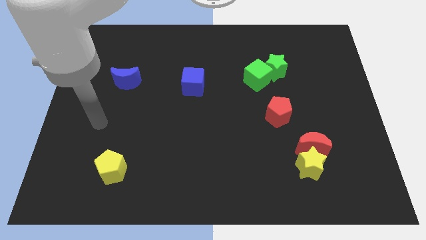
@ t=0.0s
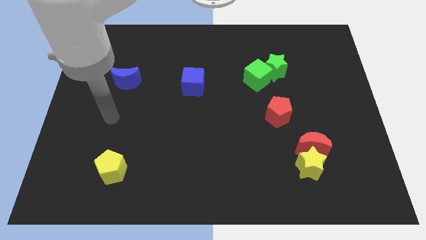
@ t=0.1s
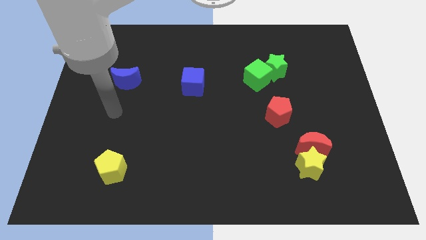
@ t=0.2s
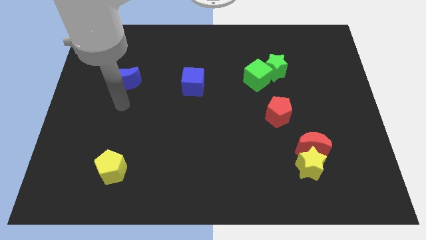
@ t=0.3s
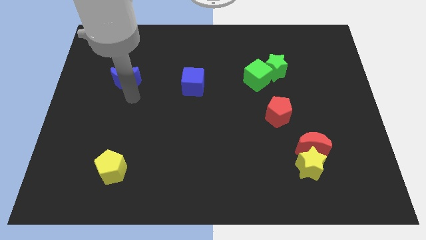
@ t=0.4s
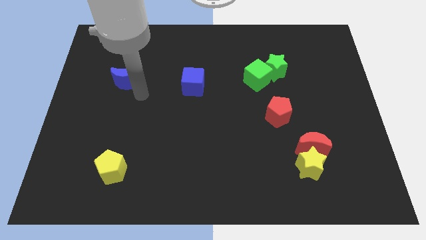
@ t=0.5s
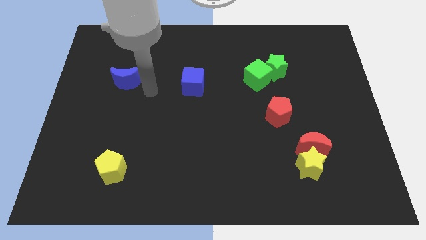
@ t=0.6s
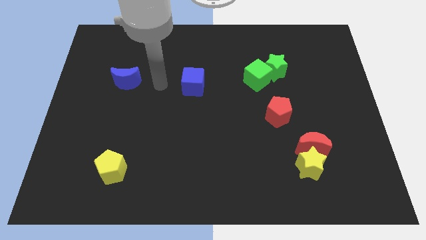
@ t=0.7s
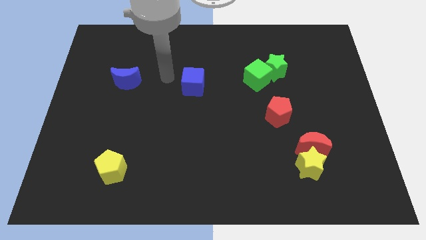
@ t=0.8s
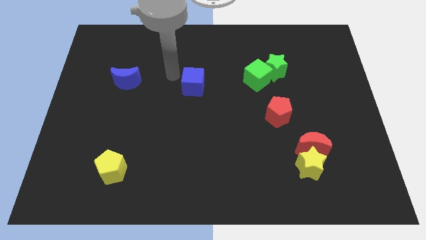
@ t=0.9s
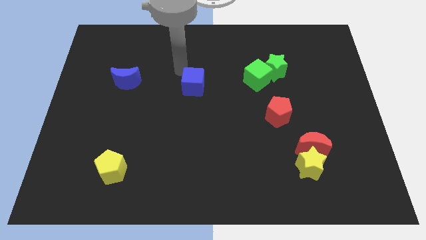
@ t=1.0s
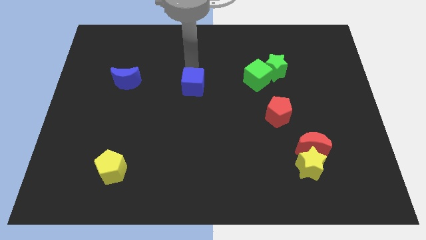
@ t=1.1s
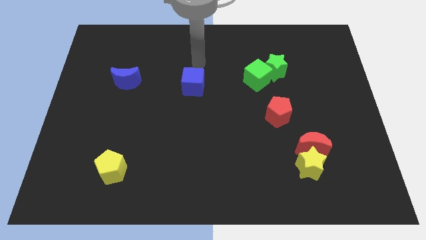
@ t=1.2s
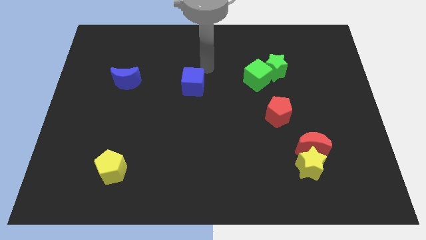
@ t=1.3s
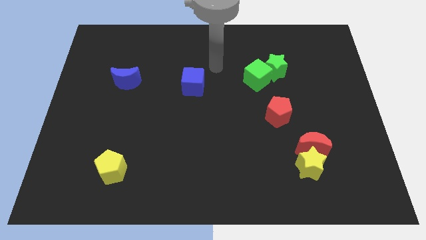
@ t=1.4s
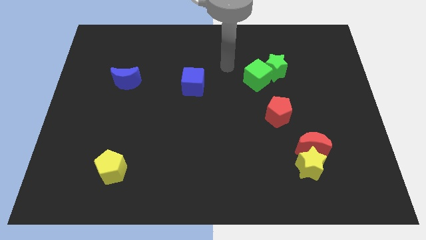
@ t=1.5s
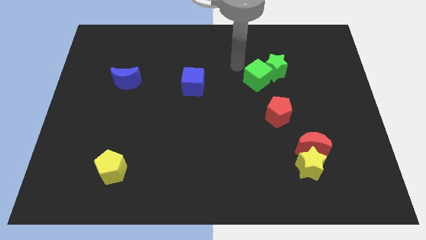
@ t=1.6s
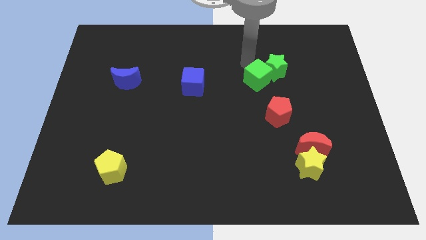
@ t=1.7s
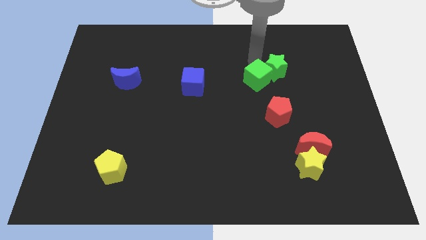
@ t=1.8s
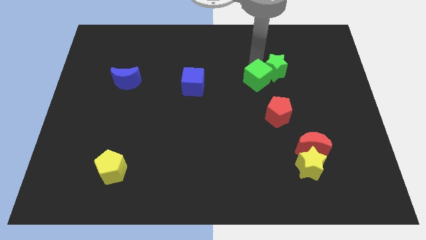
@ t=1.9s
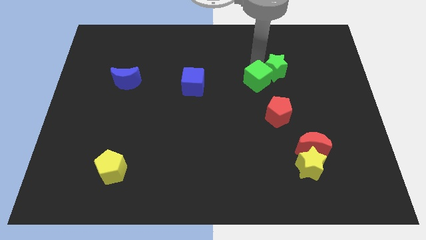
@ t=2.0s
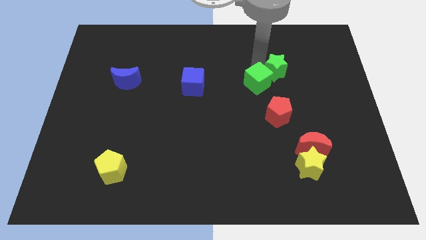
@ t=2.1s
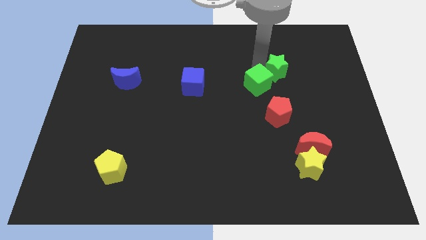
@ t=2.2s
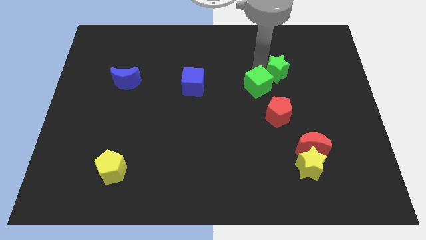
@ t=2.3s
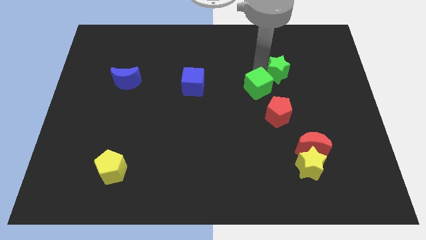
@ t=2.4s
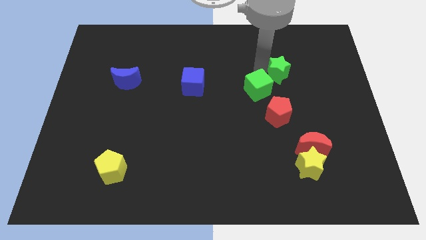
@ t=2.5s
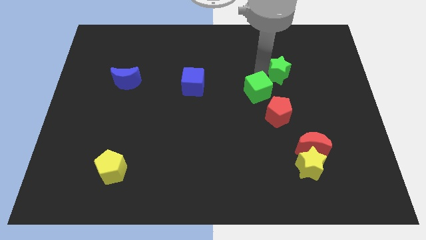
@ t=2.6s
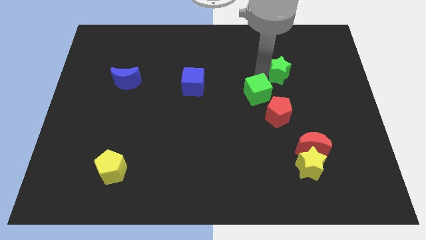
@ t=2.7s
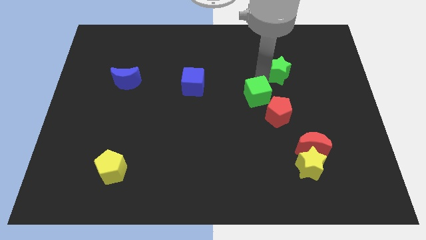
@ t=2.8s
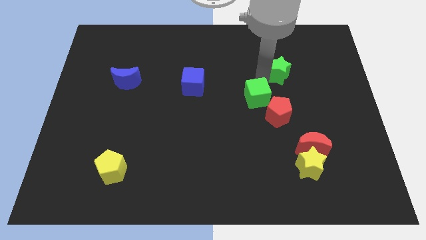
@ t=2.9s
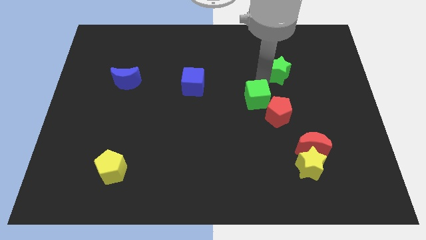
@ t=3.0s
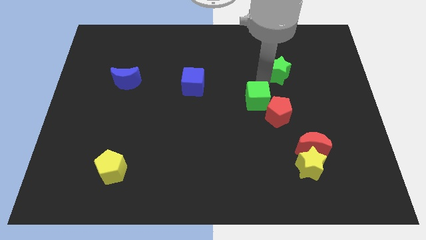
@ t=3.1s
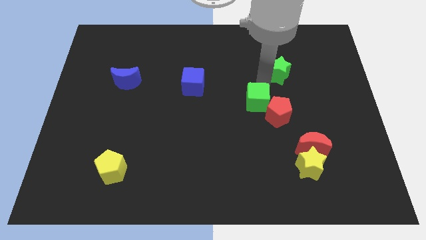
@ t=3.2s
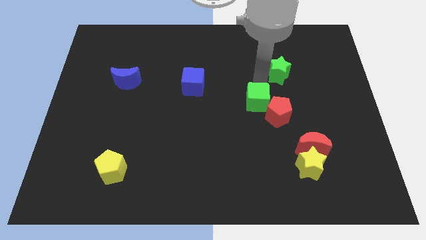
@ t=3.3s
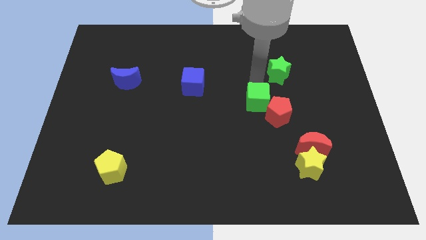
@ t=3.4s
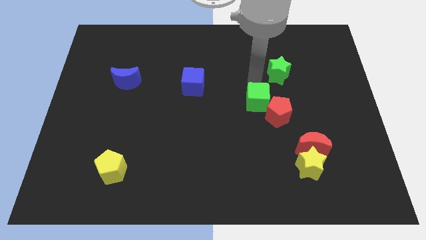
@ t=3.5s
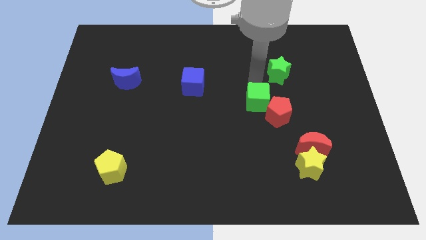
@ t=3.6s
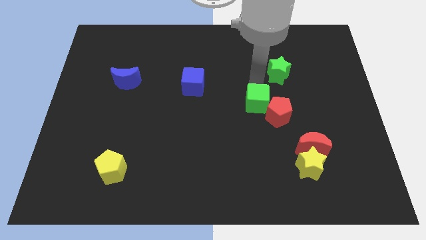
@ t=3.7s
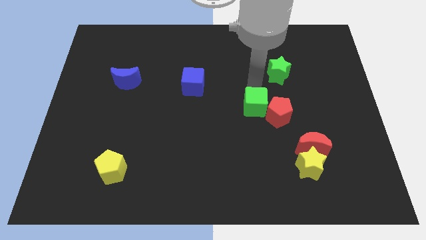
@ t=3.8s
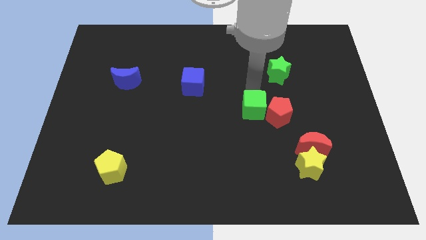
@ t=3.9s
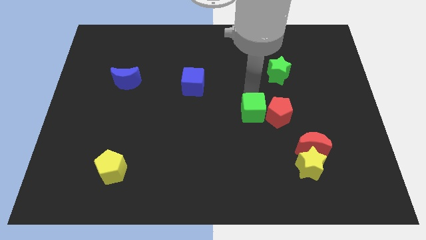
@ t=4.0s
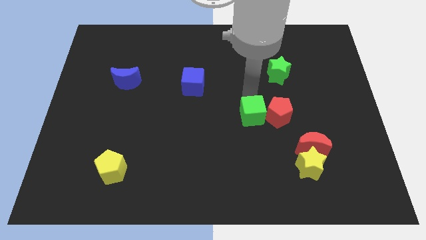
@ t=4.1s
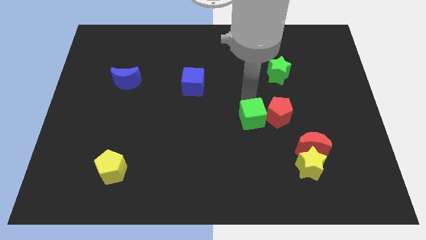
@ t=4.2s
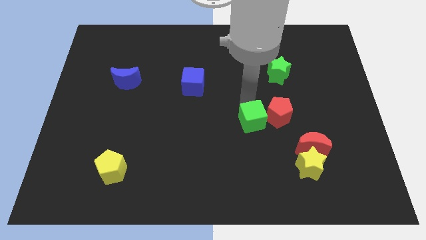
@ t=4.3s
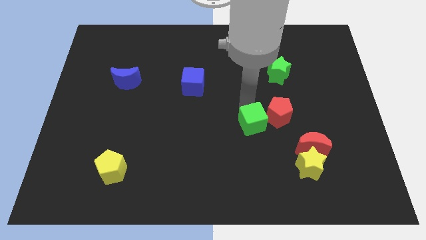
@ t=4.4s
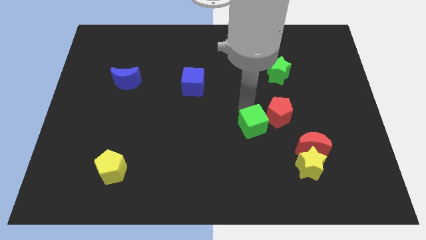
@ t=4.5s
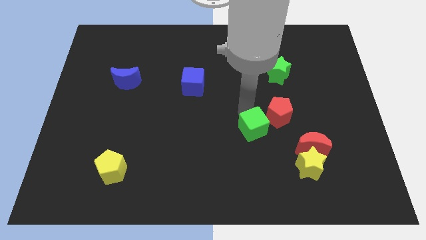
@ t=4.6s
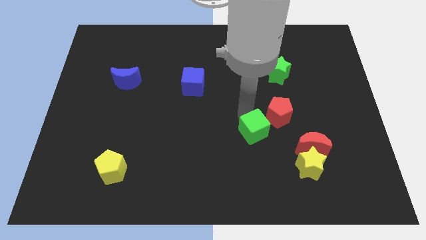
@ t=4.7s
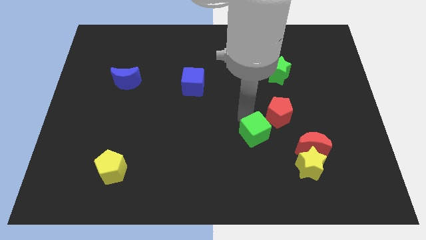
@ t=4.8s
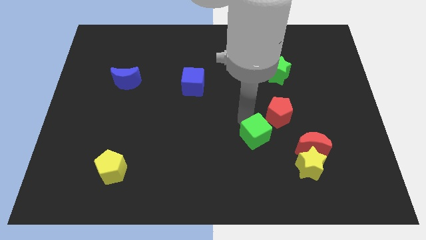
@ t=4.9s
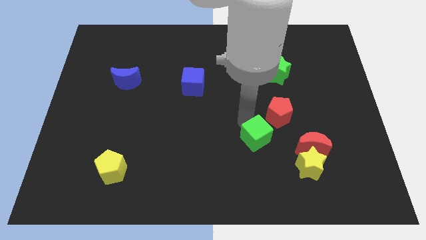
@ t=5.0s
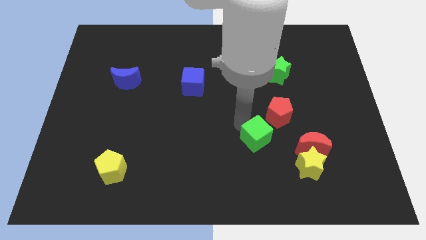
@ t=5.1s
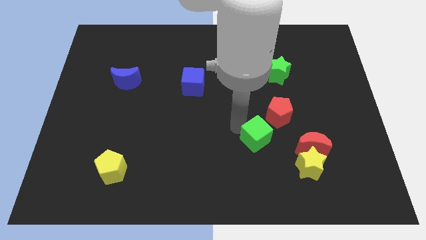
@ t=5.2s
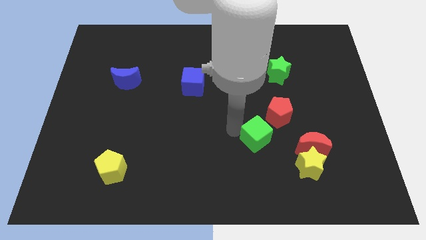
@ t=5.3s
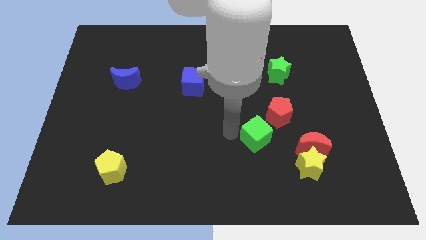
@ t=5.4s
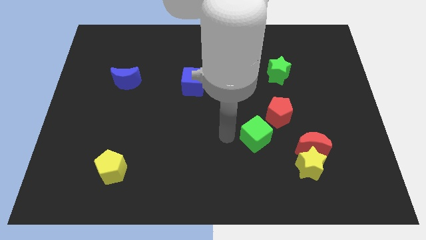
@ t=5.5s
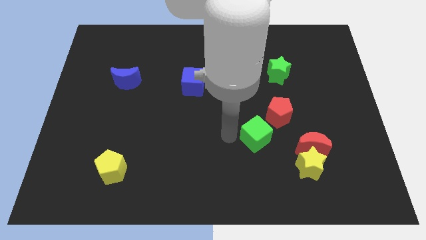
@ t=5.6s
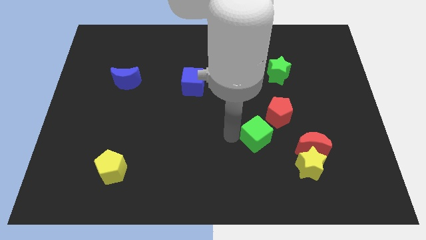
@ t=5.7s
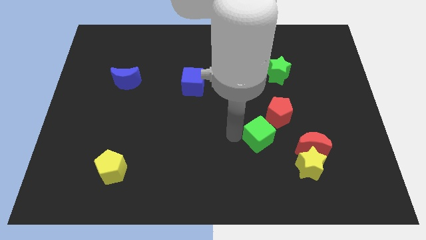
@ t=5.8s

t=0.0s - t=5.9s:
slide the green cube below the red pentagon

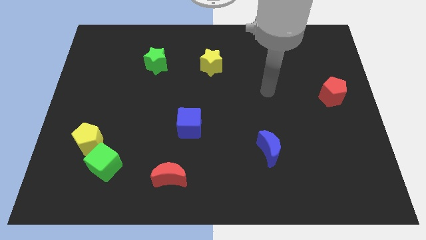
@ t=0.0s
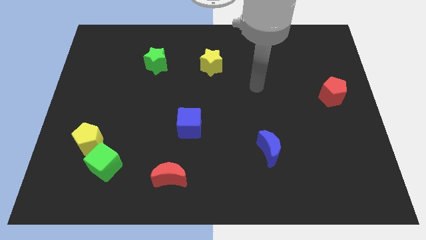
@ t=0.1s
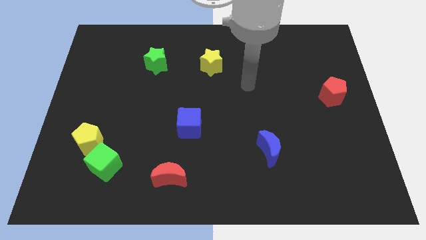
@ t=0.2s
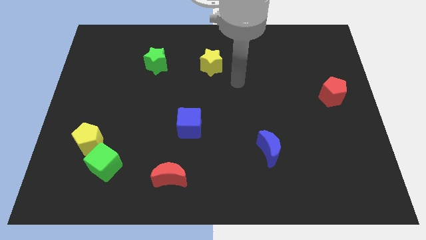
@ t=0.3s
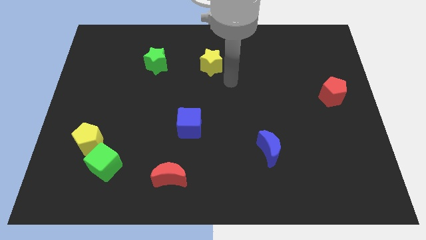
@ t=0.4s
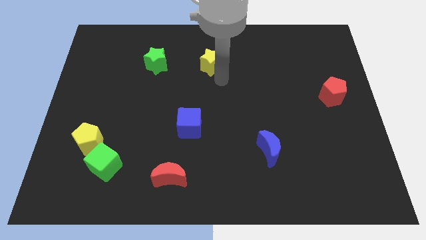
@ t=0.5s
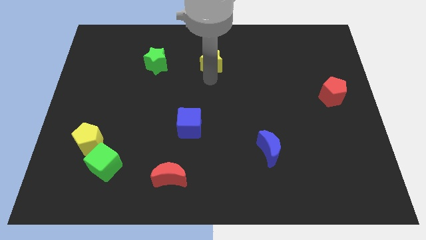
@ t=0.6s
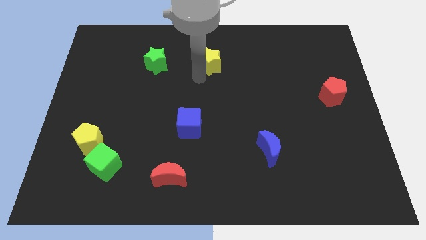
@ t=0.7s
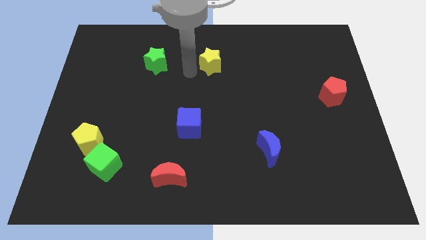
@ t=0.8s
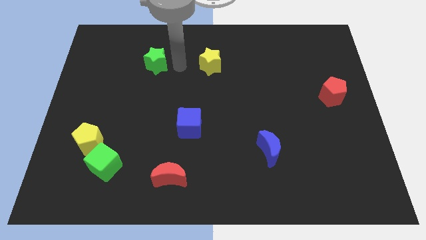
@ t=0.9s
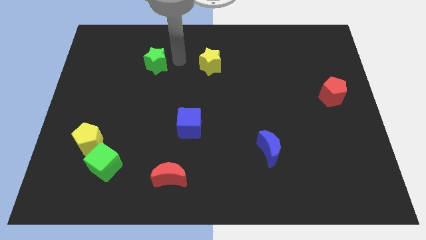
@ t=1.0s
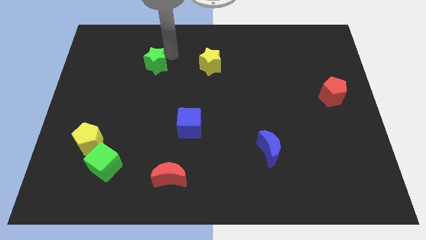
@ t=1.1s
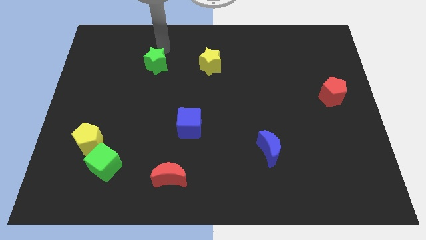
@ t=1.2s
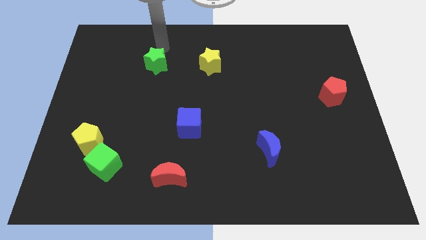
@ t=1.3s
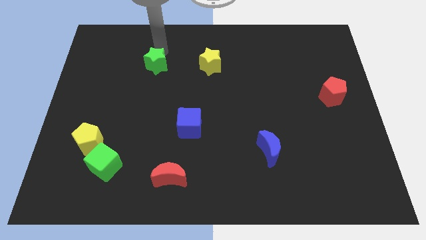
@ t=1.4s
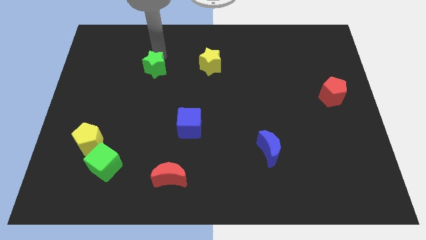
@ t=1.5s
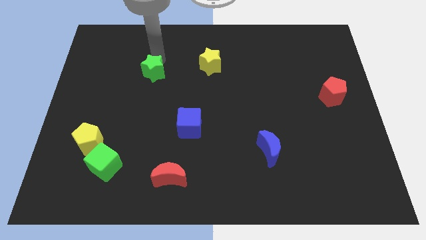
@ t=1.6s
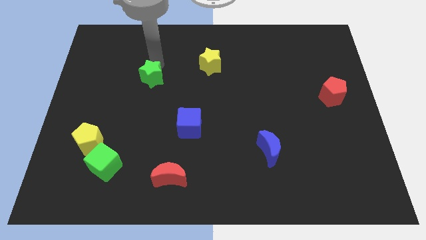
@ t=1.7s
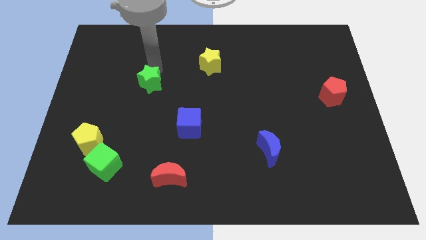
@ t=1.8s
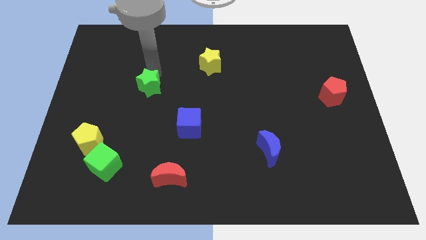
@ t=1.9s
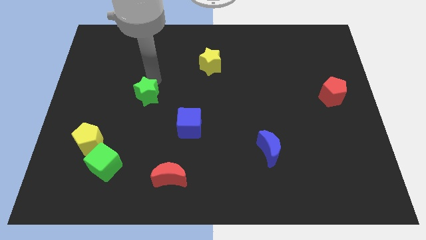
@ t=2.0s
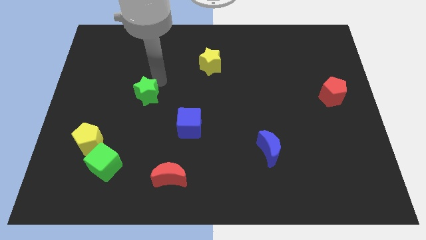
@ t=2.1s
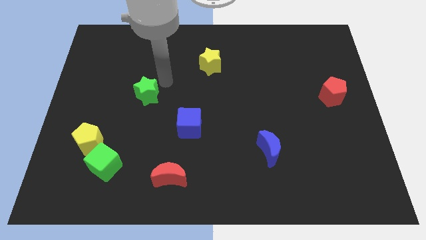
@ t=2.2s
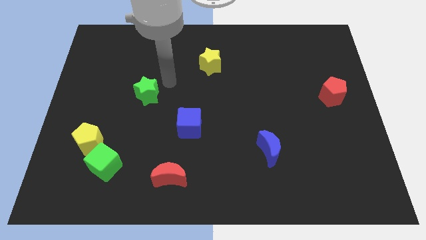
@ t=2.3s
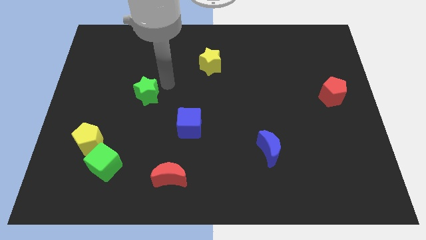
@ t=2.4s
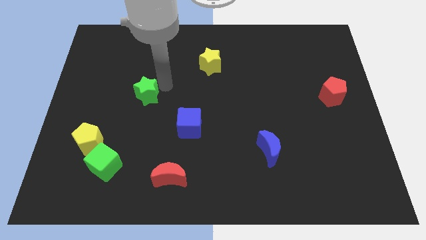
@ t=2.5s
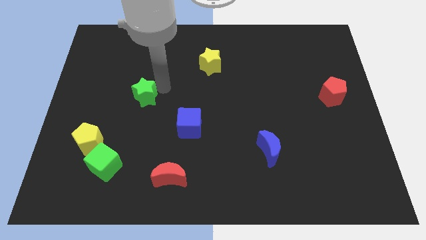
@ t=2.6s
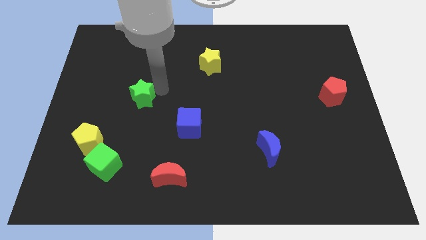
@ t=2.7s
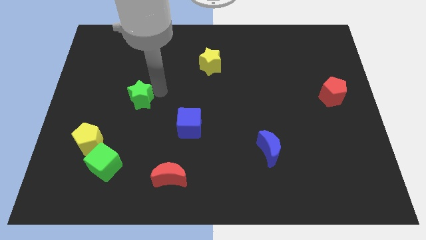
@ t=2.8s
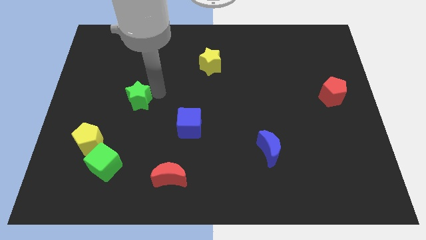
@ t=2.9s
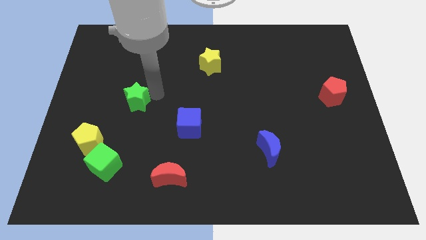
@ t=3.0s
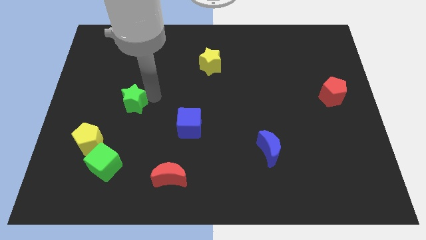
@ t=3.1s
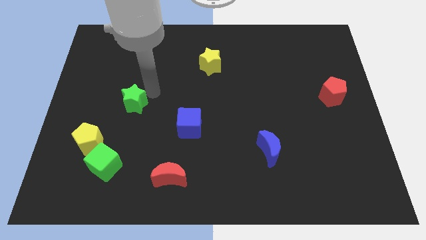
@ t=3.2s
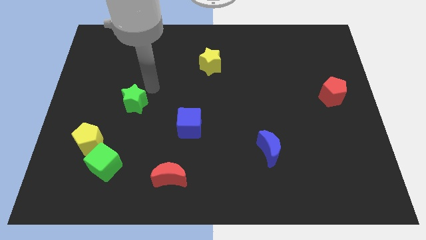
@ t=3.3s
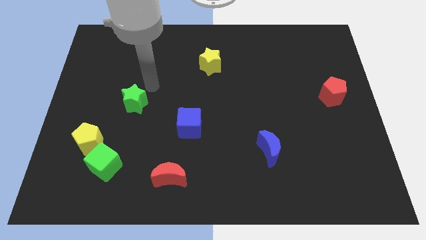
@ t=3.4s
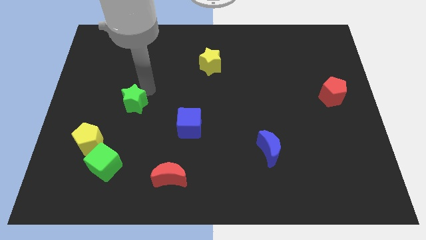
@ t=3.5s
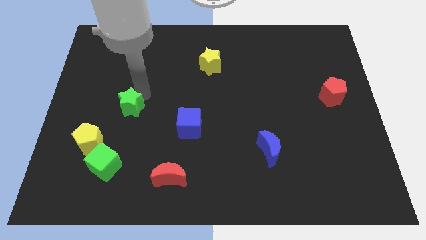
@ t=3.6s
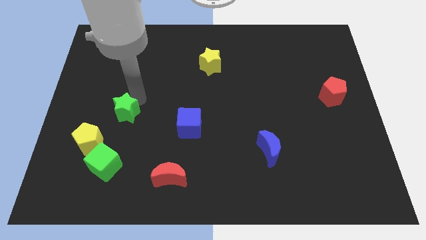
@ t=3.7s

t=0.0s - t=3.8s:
move the green star to the top side of the green cube
